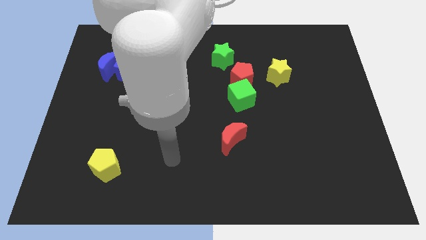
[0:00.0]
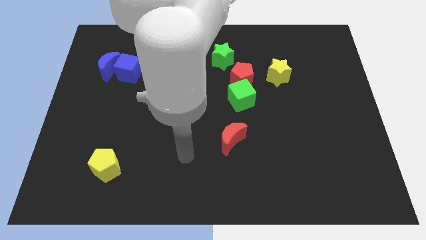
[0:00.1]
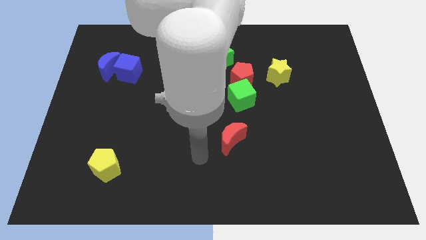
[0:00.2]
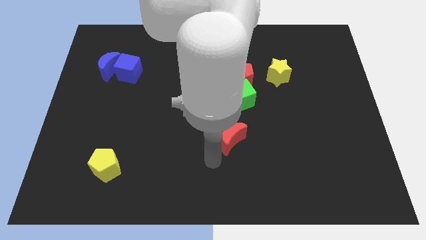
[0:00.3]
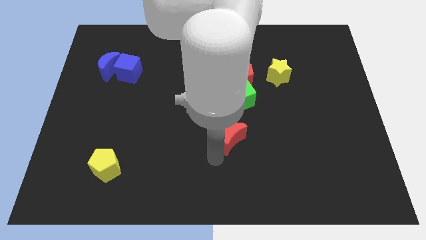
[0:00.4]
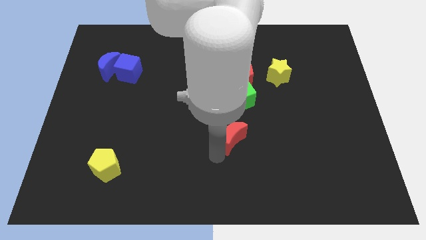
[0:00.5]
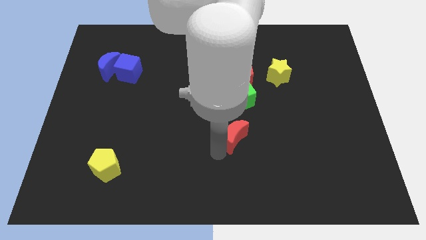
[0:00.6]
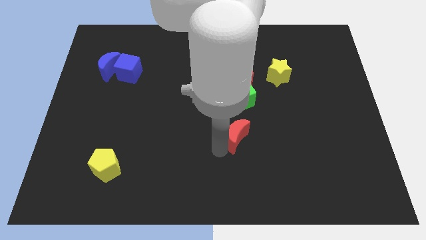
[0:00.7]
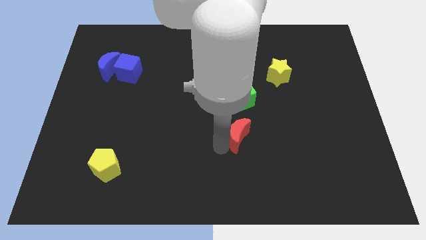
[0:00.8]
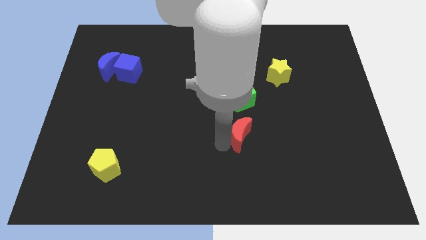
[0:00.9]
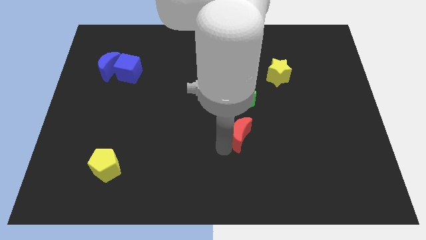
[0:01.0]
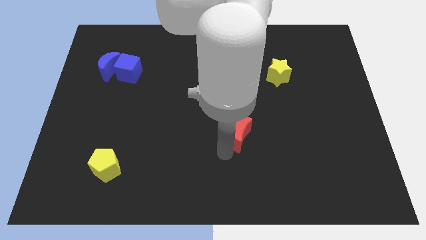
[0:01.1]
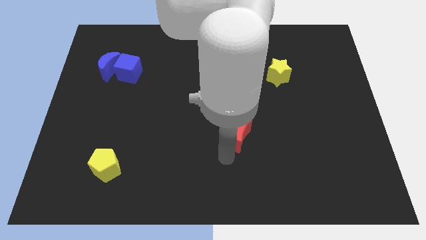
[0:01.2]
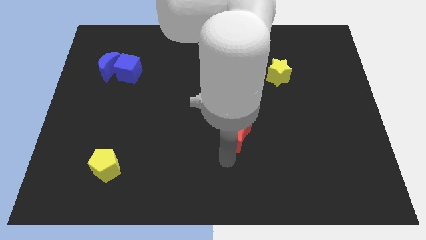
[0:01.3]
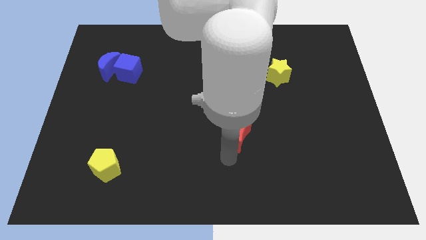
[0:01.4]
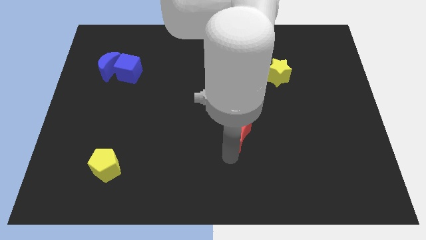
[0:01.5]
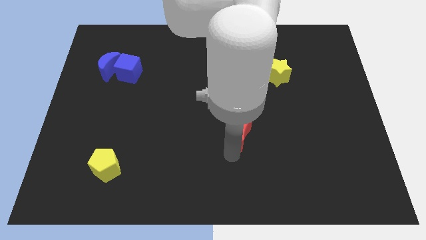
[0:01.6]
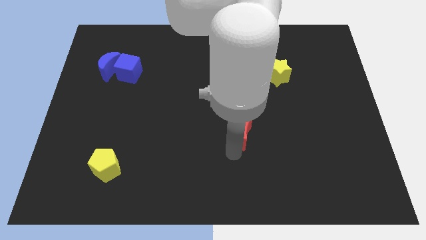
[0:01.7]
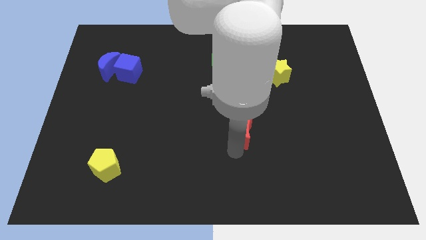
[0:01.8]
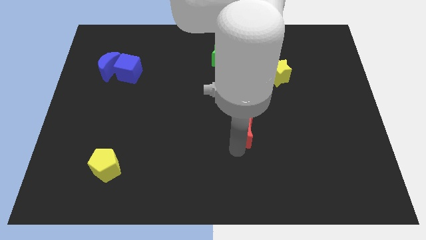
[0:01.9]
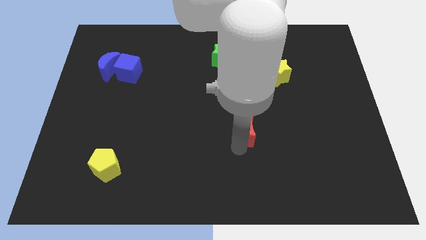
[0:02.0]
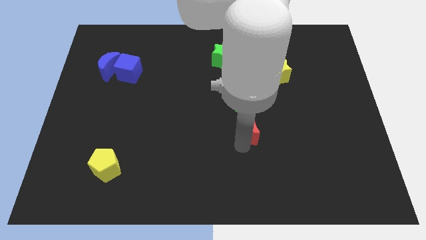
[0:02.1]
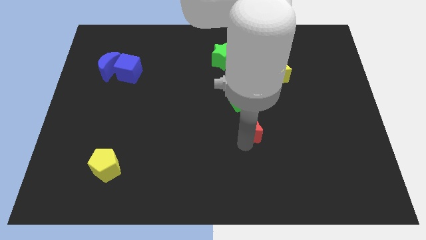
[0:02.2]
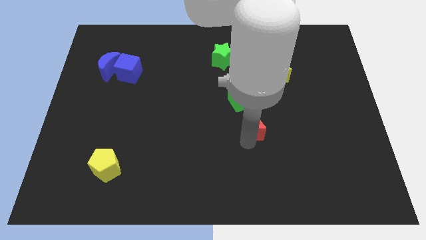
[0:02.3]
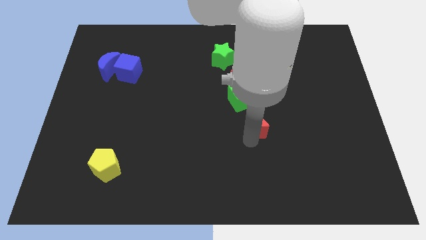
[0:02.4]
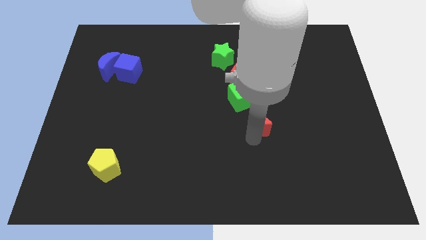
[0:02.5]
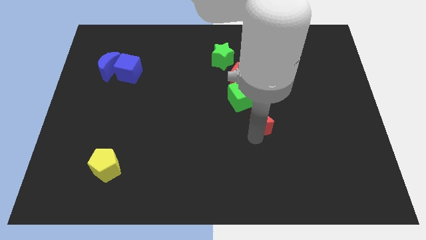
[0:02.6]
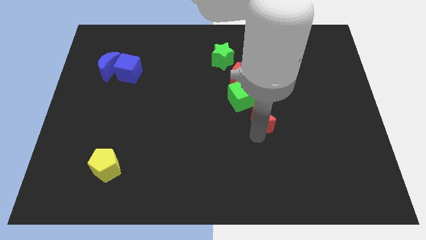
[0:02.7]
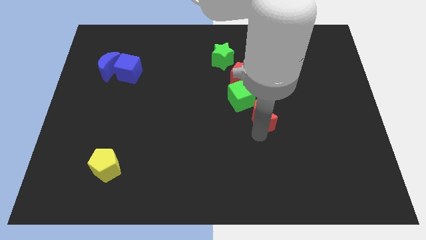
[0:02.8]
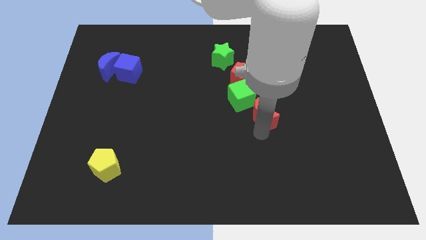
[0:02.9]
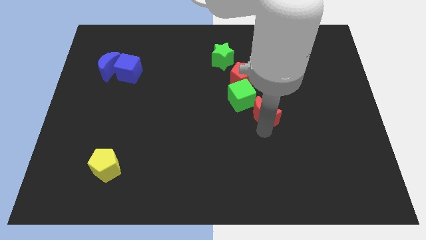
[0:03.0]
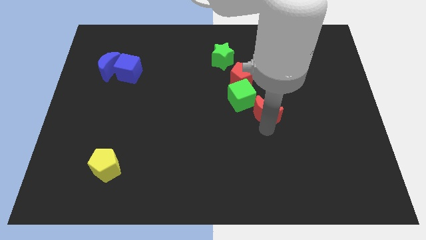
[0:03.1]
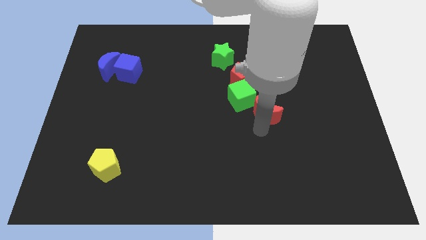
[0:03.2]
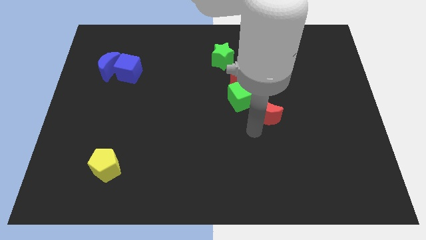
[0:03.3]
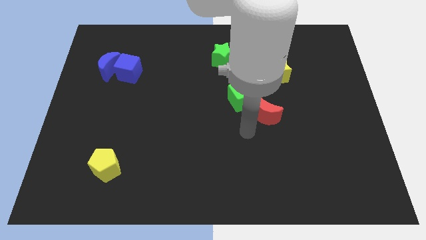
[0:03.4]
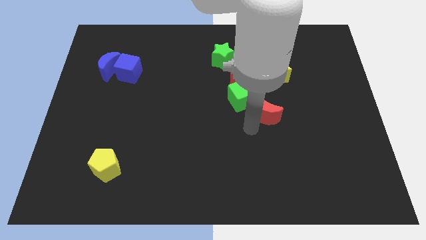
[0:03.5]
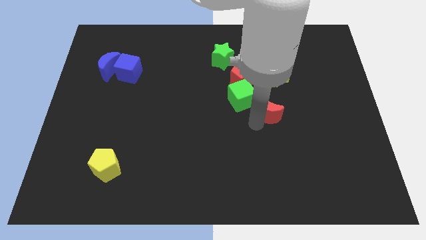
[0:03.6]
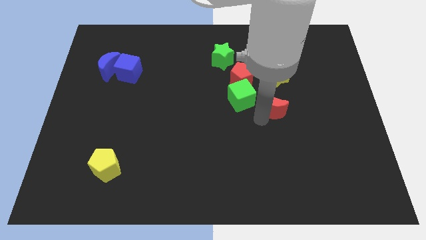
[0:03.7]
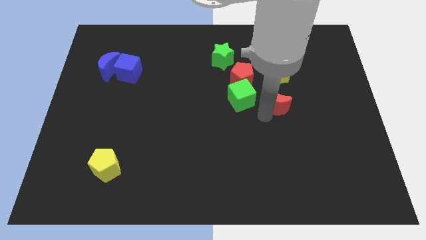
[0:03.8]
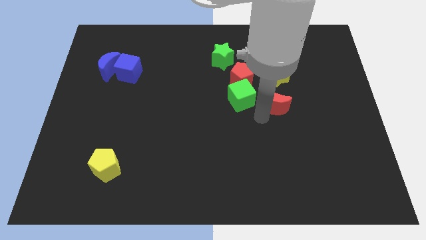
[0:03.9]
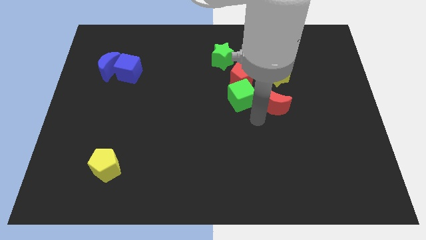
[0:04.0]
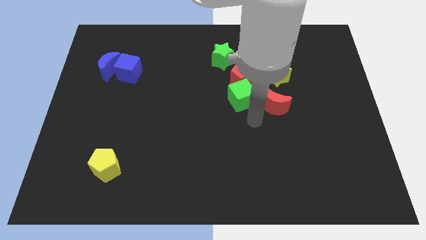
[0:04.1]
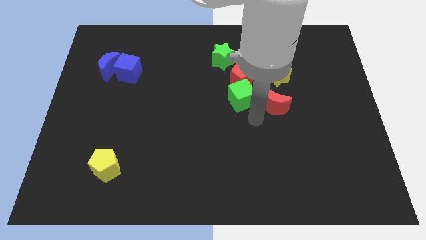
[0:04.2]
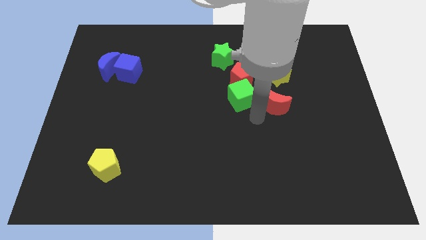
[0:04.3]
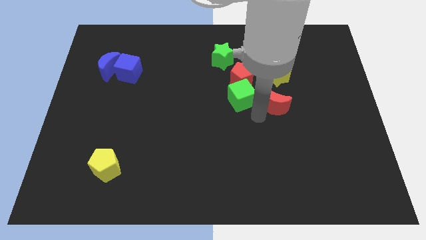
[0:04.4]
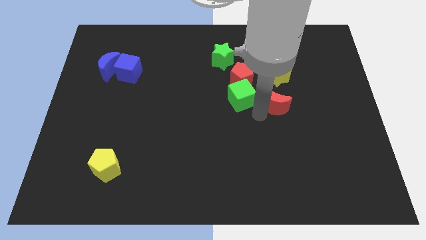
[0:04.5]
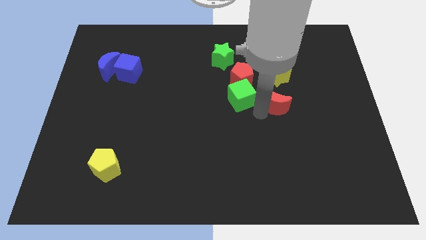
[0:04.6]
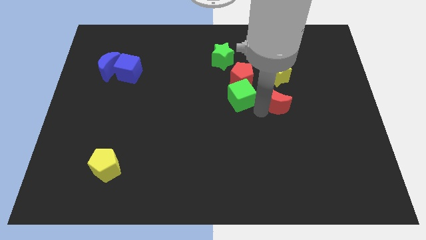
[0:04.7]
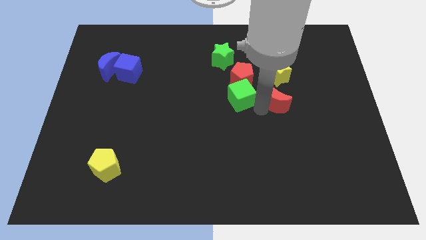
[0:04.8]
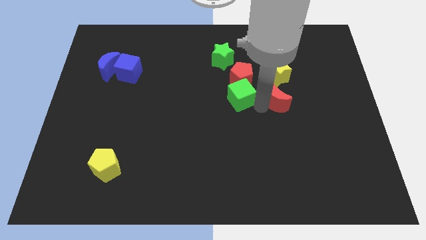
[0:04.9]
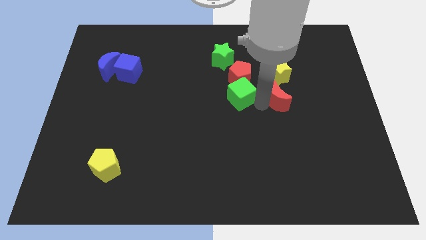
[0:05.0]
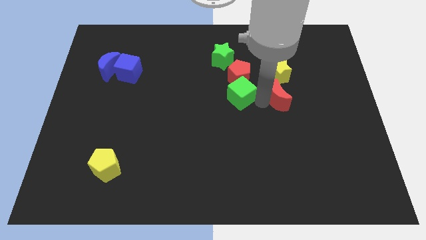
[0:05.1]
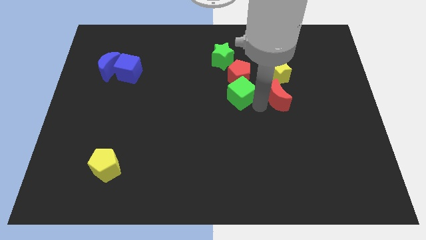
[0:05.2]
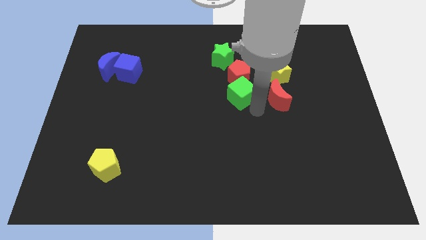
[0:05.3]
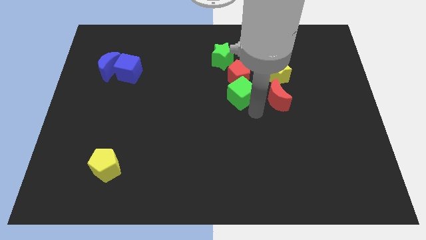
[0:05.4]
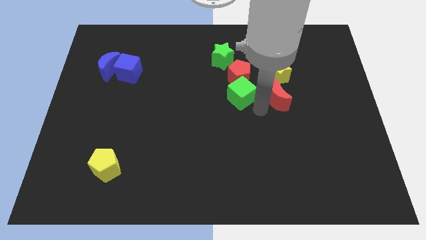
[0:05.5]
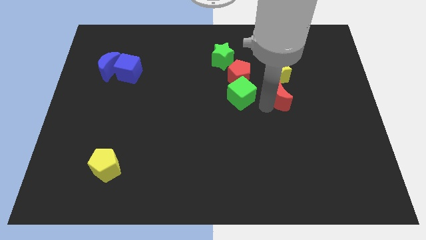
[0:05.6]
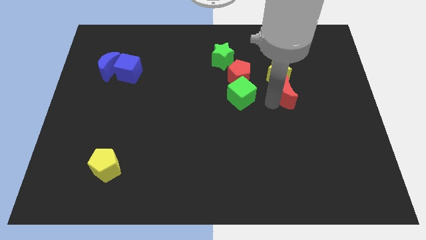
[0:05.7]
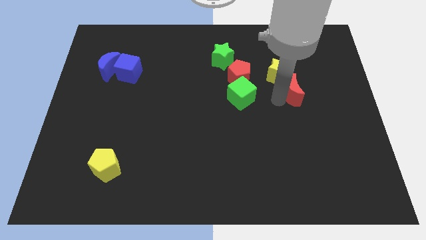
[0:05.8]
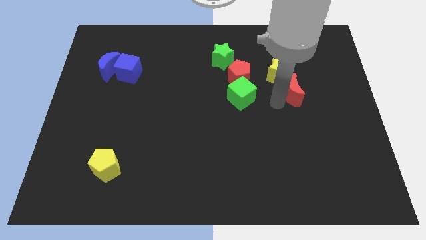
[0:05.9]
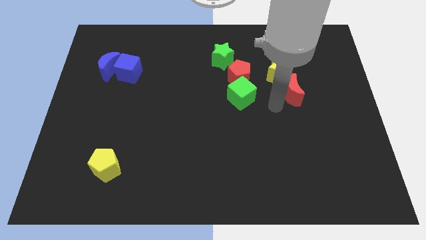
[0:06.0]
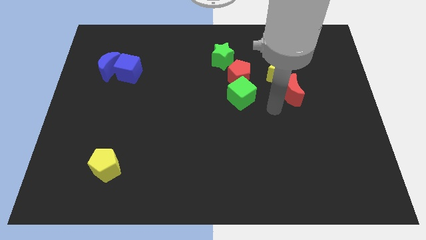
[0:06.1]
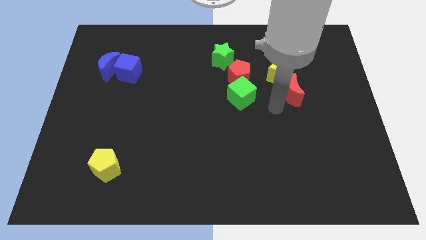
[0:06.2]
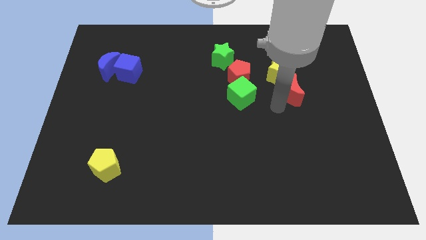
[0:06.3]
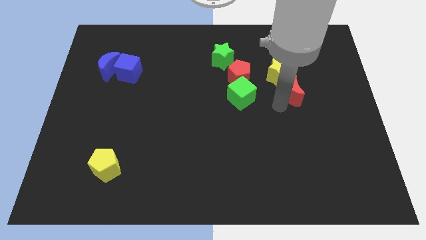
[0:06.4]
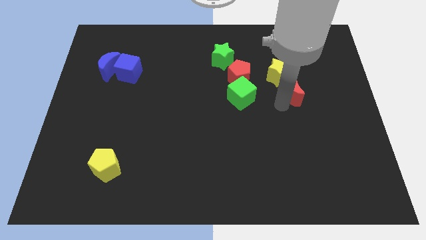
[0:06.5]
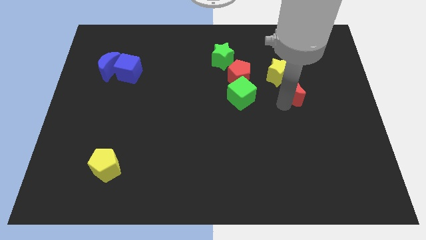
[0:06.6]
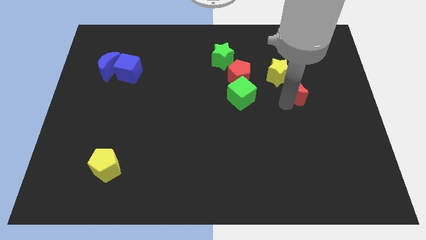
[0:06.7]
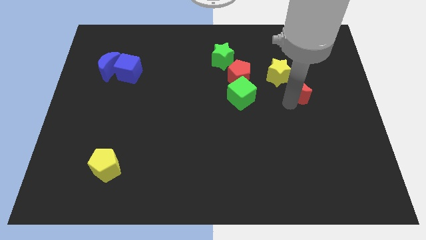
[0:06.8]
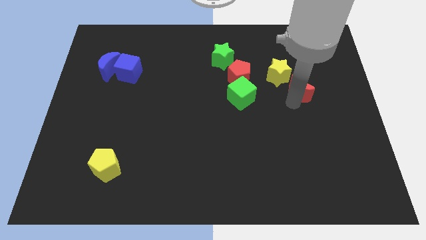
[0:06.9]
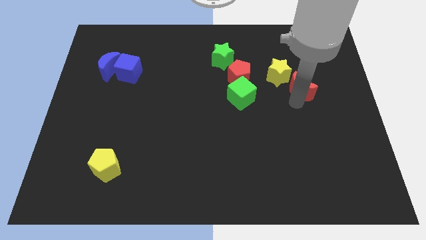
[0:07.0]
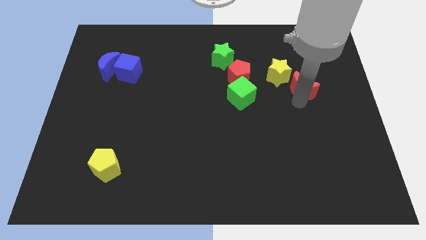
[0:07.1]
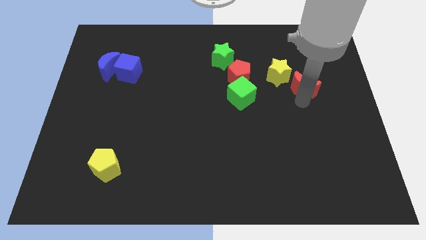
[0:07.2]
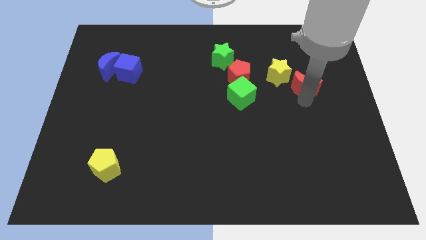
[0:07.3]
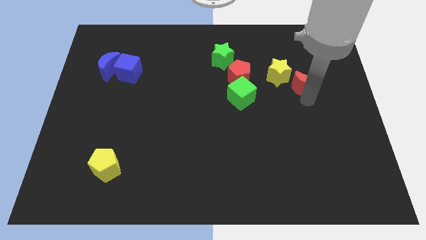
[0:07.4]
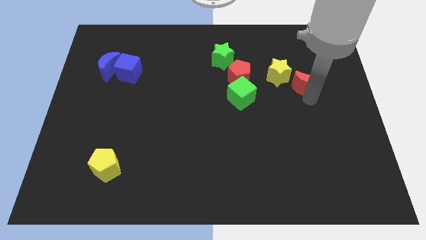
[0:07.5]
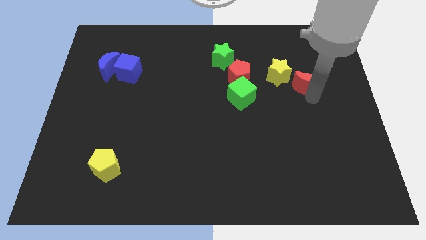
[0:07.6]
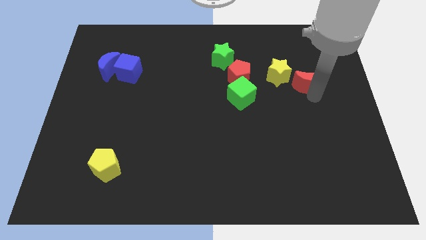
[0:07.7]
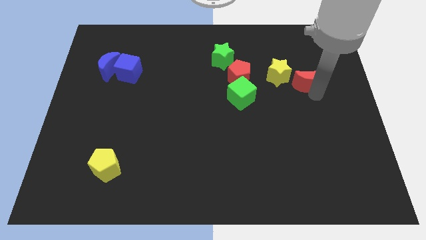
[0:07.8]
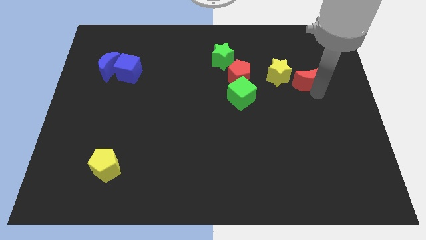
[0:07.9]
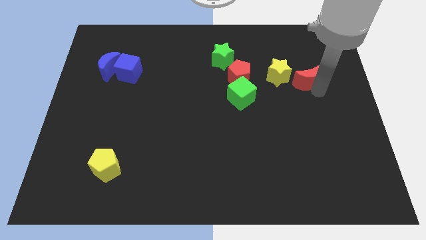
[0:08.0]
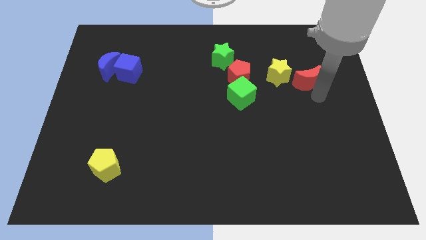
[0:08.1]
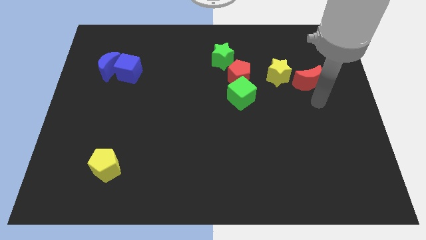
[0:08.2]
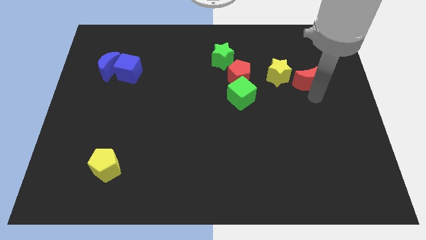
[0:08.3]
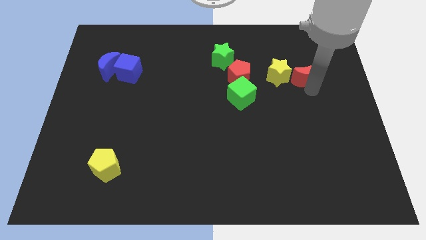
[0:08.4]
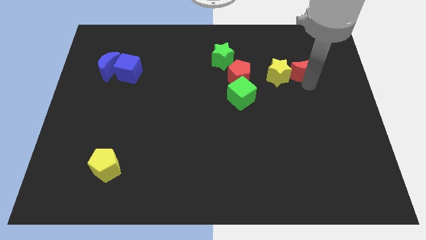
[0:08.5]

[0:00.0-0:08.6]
put the red moon to the top right of the yellow star
